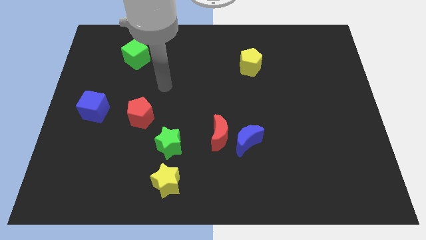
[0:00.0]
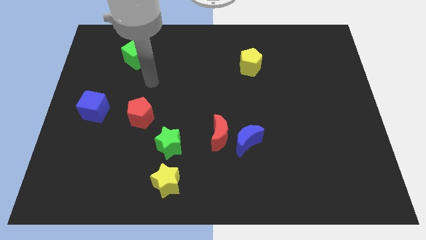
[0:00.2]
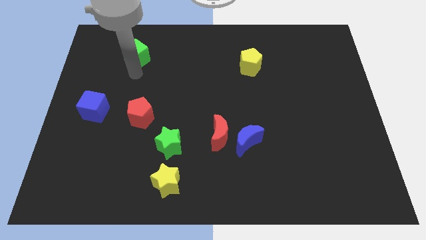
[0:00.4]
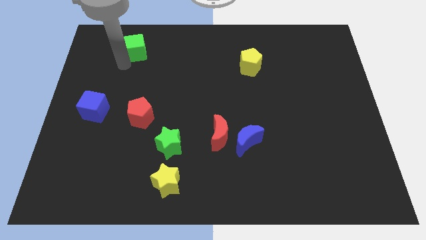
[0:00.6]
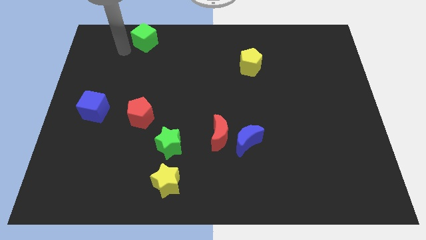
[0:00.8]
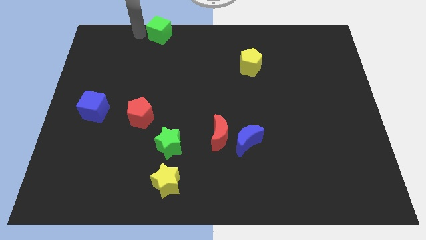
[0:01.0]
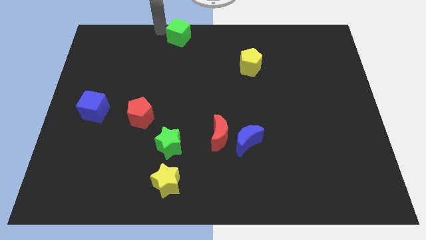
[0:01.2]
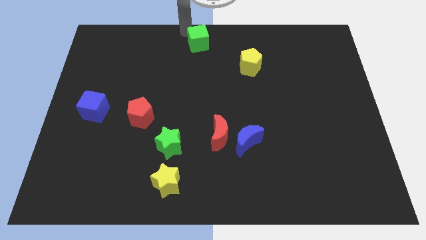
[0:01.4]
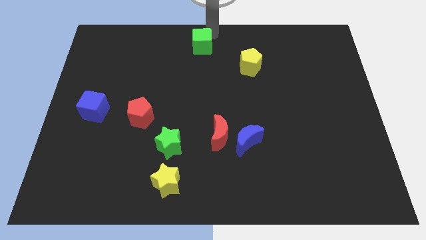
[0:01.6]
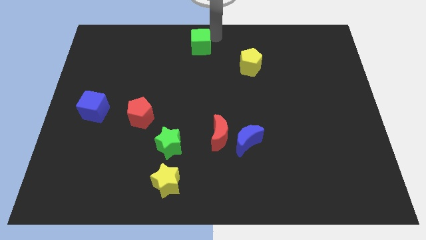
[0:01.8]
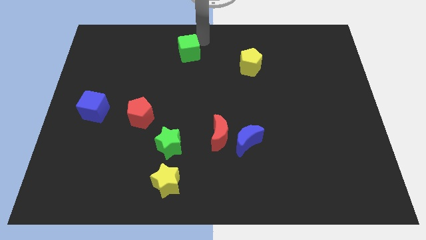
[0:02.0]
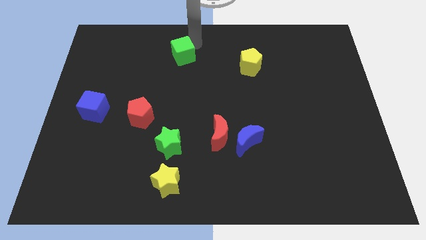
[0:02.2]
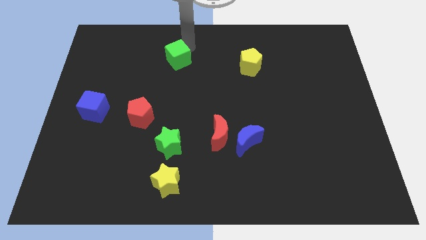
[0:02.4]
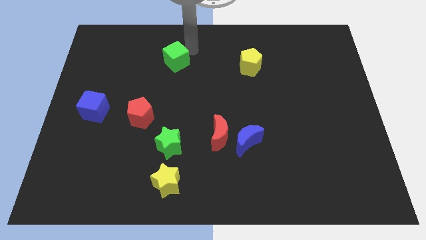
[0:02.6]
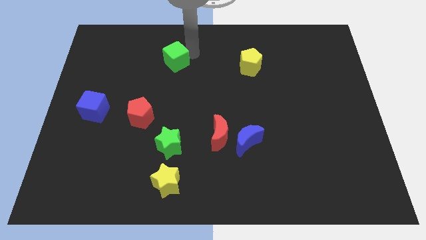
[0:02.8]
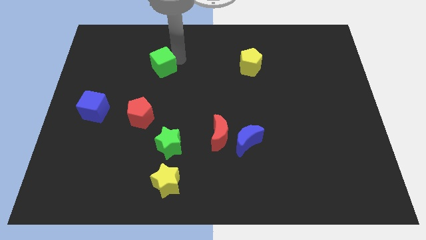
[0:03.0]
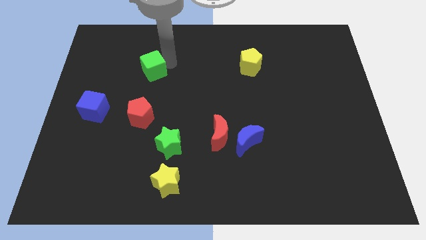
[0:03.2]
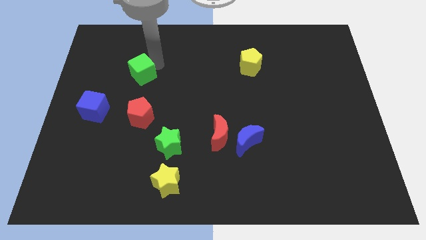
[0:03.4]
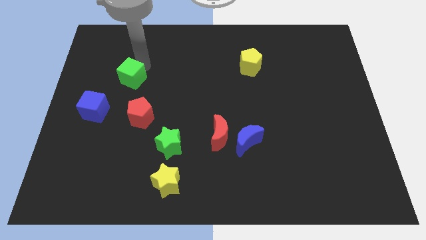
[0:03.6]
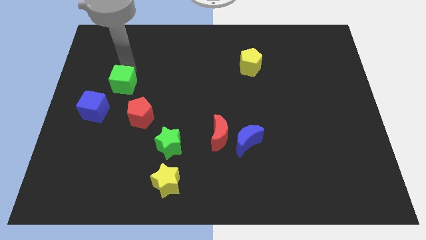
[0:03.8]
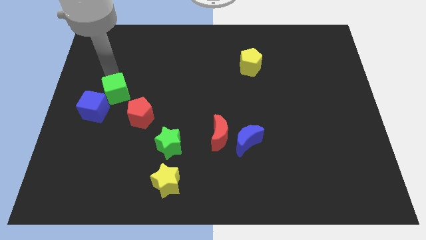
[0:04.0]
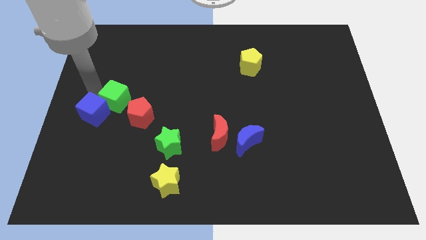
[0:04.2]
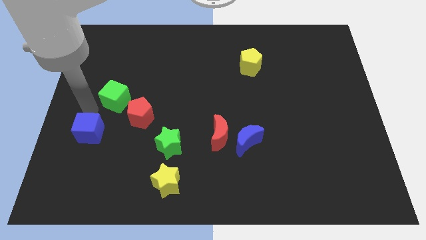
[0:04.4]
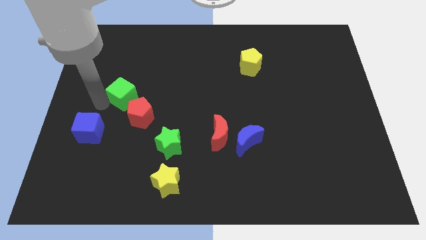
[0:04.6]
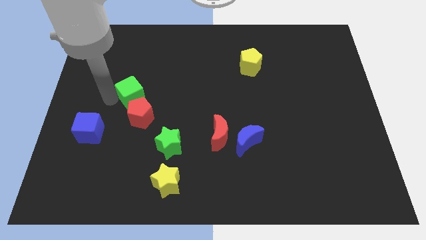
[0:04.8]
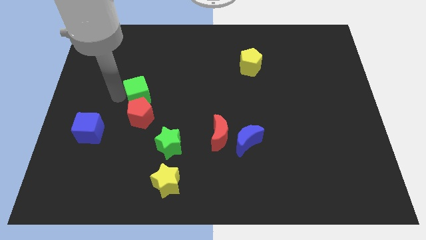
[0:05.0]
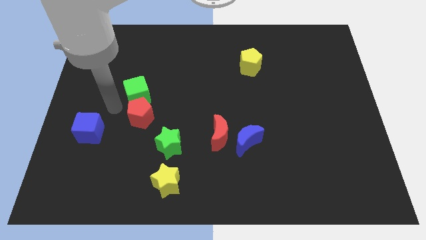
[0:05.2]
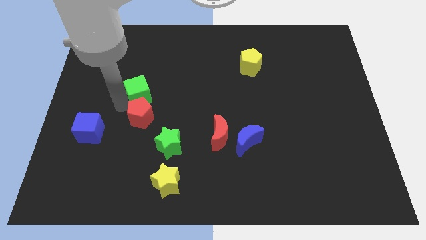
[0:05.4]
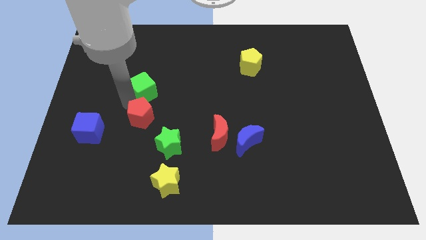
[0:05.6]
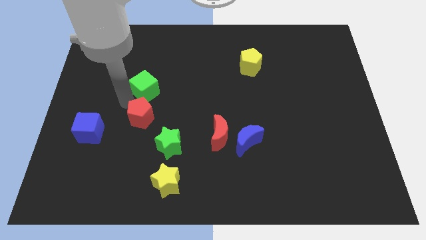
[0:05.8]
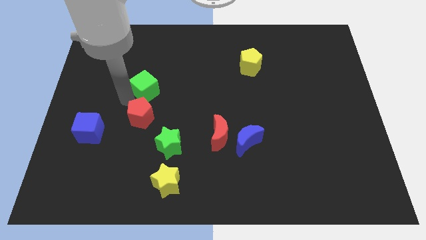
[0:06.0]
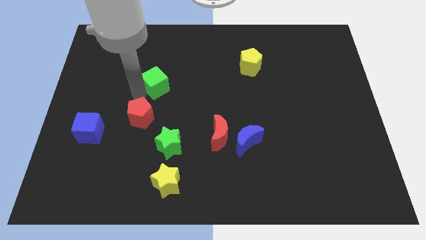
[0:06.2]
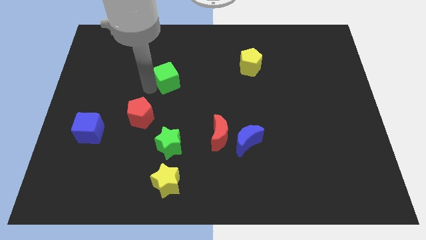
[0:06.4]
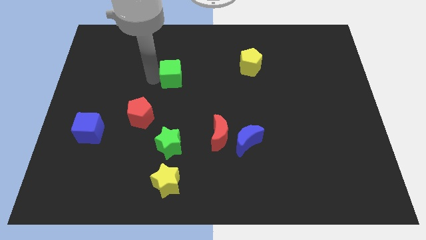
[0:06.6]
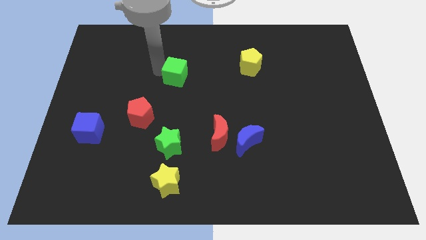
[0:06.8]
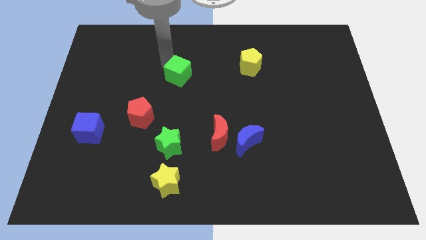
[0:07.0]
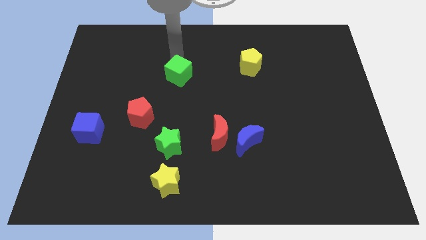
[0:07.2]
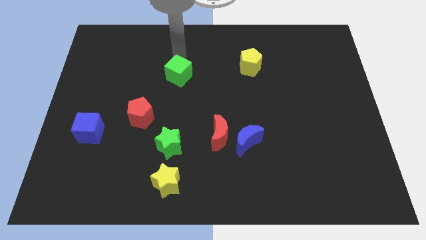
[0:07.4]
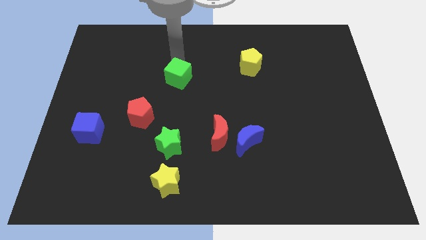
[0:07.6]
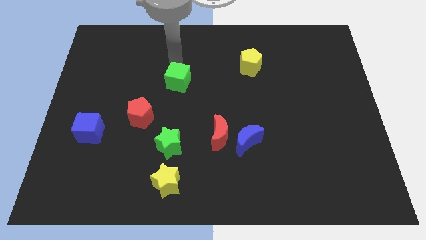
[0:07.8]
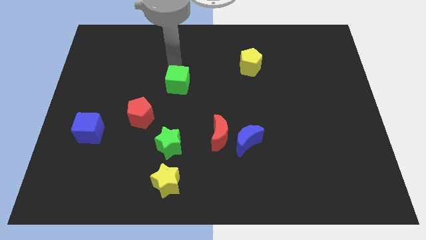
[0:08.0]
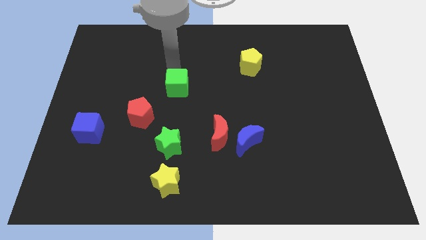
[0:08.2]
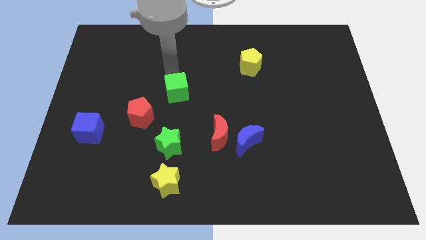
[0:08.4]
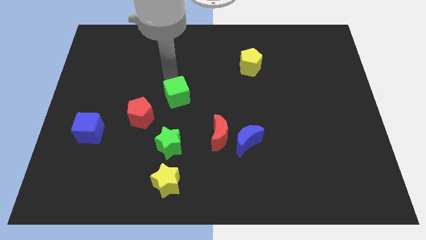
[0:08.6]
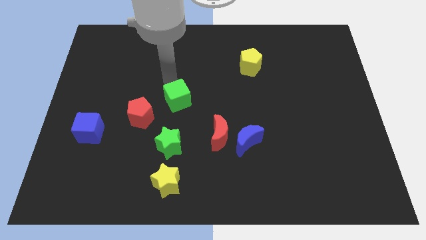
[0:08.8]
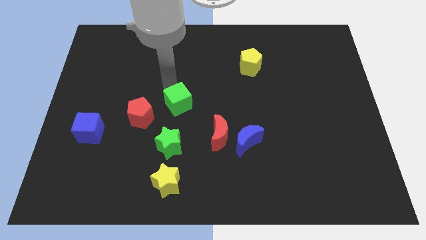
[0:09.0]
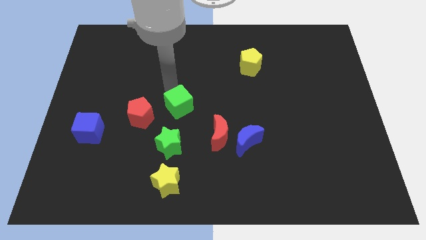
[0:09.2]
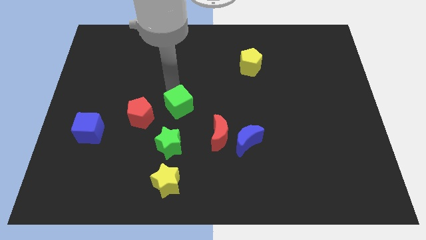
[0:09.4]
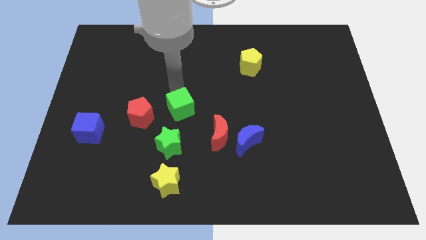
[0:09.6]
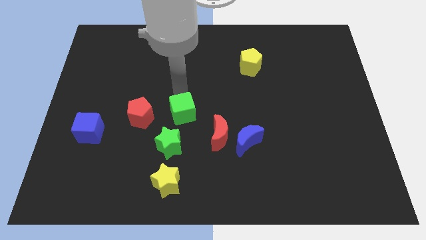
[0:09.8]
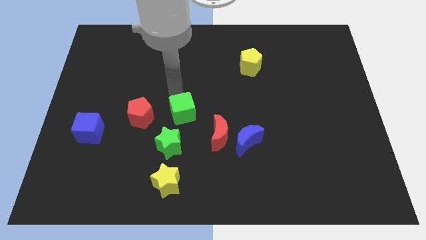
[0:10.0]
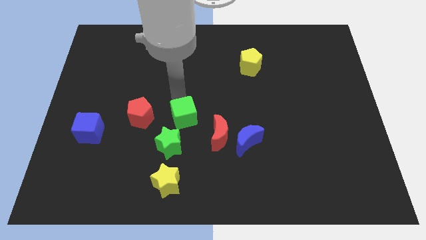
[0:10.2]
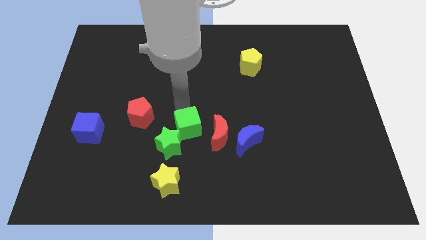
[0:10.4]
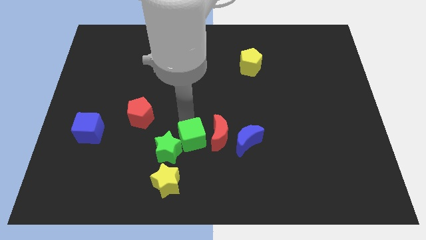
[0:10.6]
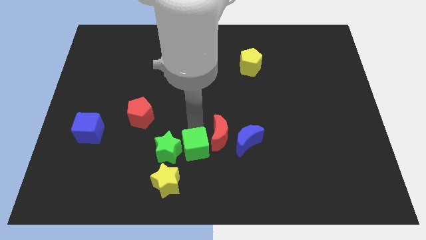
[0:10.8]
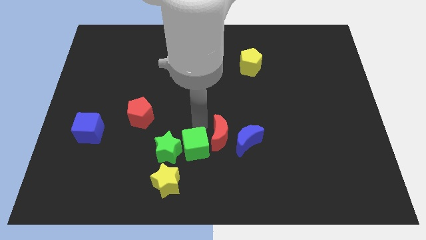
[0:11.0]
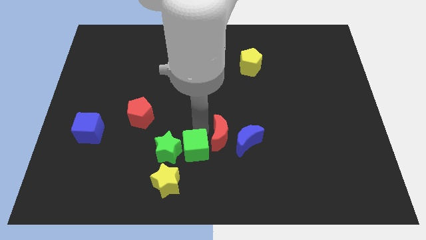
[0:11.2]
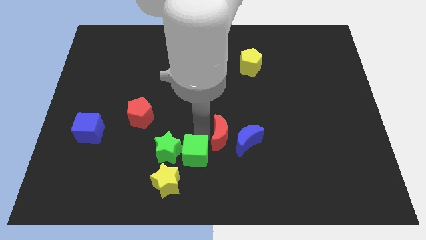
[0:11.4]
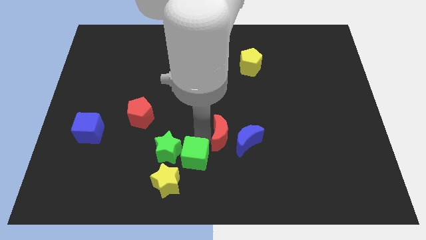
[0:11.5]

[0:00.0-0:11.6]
move the green cube to the bottom side
